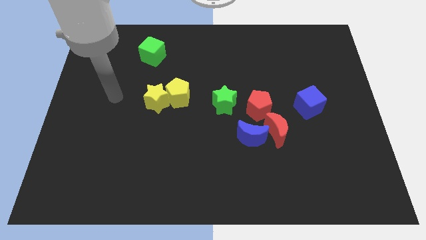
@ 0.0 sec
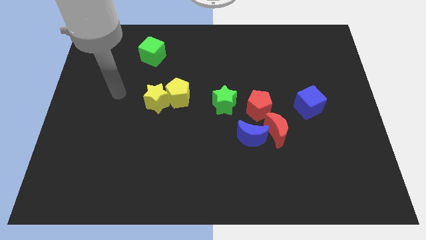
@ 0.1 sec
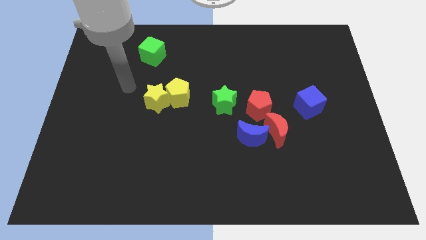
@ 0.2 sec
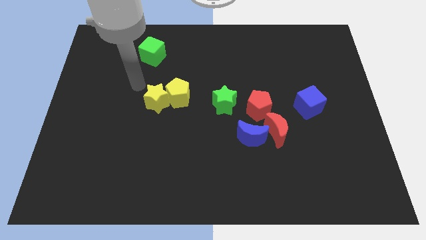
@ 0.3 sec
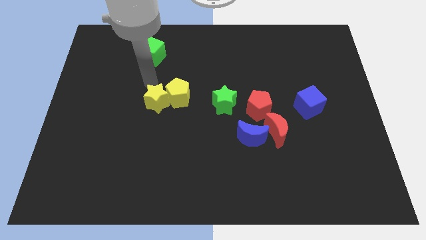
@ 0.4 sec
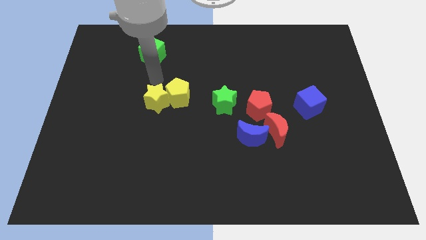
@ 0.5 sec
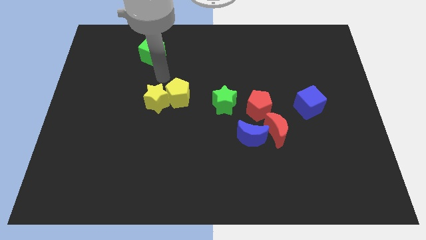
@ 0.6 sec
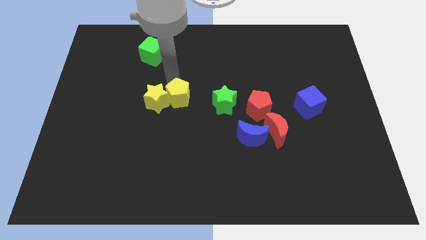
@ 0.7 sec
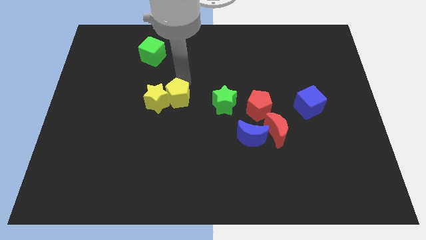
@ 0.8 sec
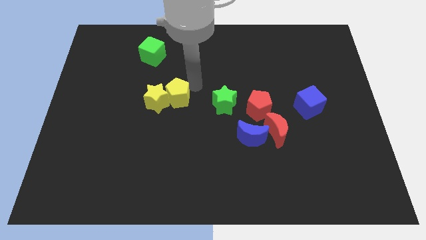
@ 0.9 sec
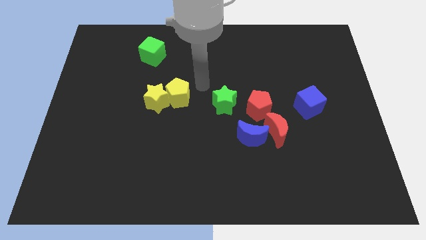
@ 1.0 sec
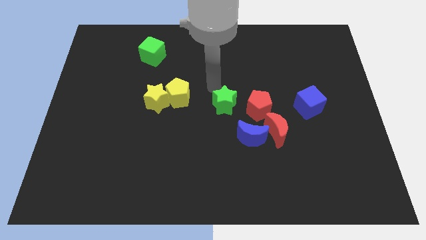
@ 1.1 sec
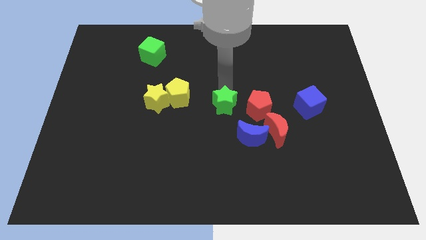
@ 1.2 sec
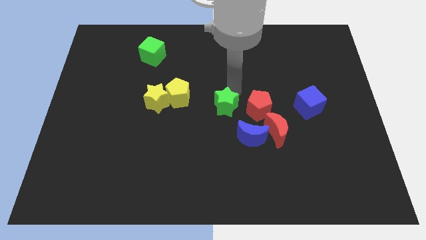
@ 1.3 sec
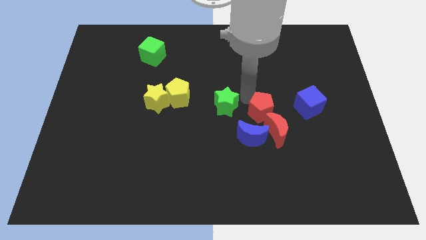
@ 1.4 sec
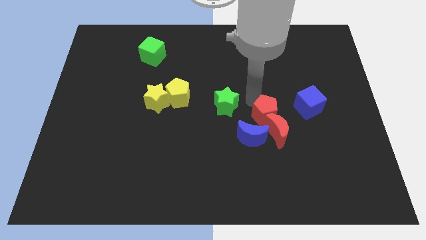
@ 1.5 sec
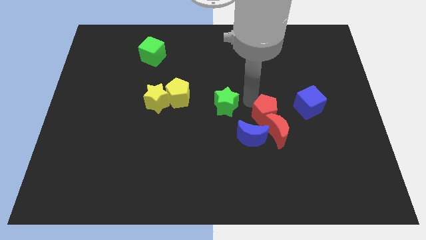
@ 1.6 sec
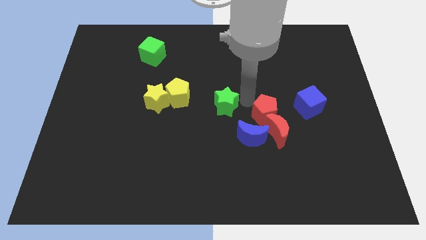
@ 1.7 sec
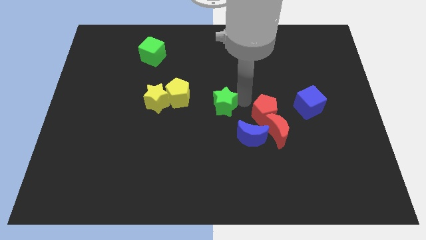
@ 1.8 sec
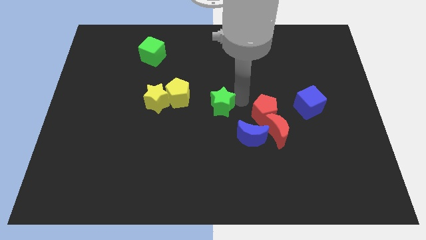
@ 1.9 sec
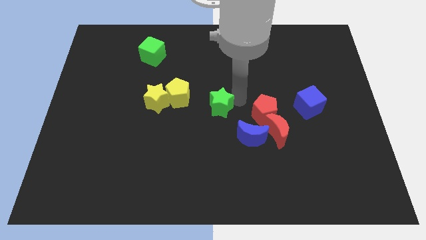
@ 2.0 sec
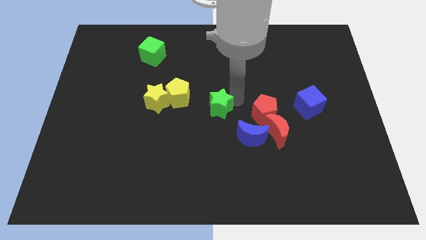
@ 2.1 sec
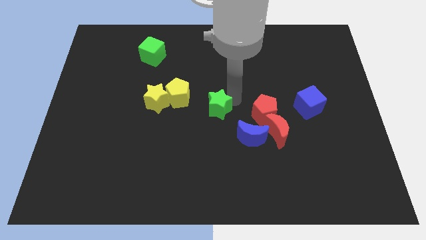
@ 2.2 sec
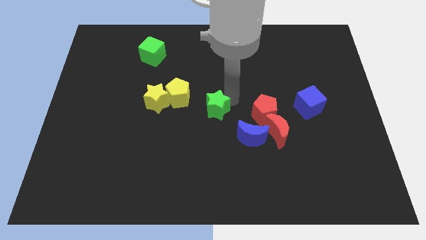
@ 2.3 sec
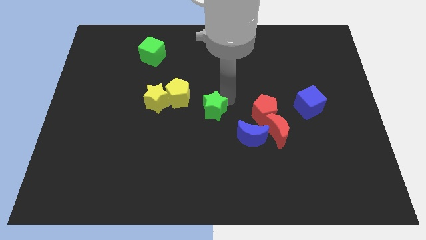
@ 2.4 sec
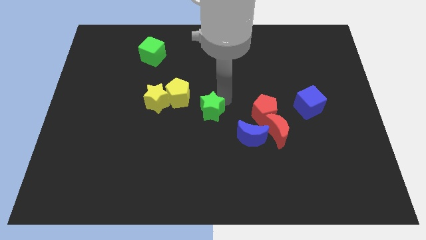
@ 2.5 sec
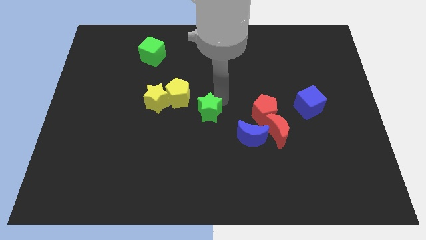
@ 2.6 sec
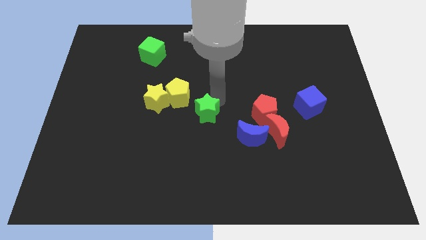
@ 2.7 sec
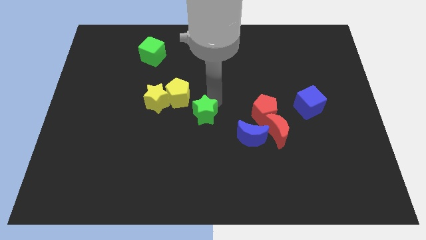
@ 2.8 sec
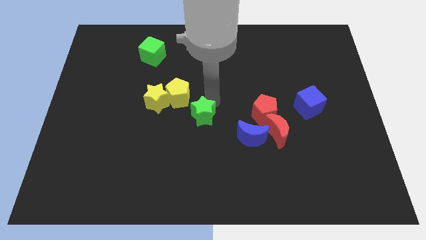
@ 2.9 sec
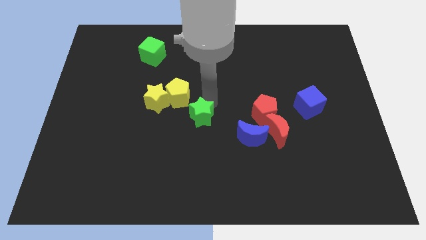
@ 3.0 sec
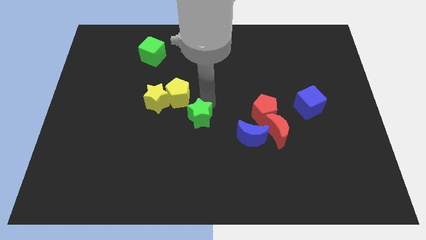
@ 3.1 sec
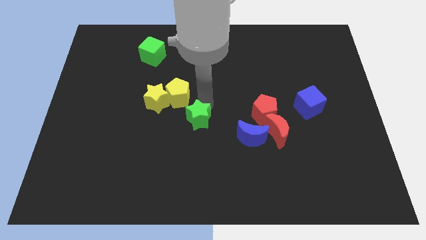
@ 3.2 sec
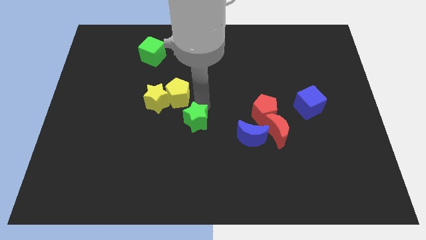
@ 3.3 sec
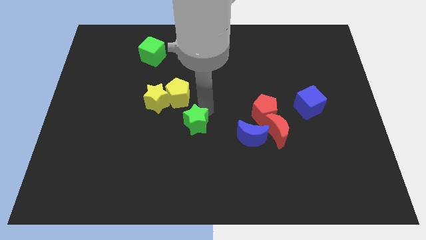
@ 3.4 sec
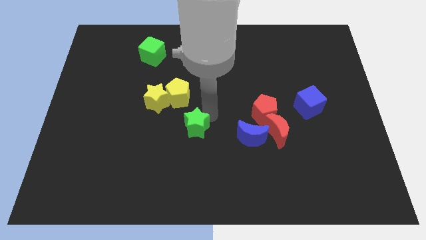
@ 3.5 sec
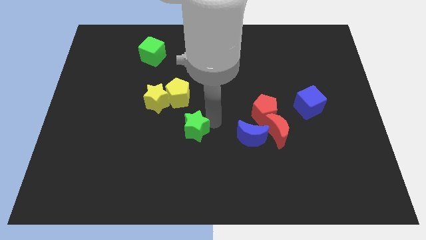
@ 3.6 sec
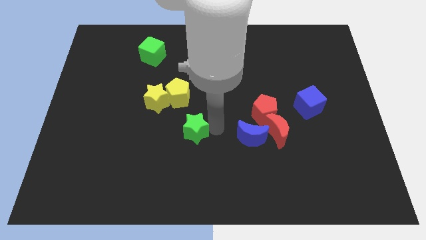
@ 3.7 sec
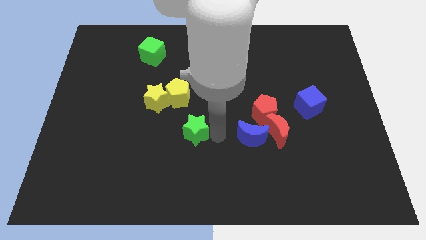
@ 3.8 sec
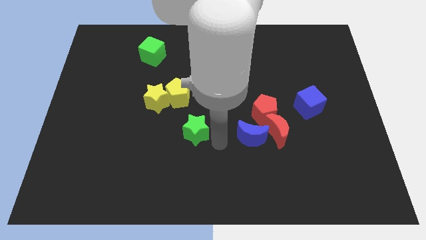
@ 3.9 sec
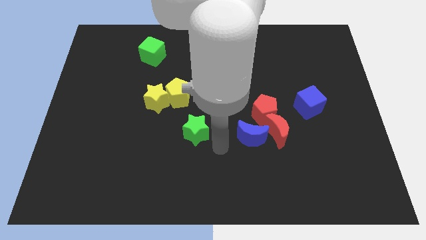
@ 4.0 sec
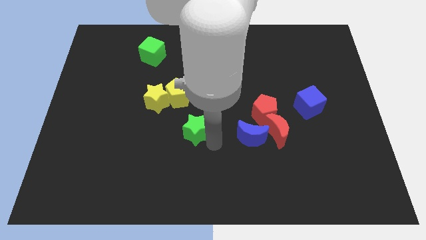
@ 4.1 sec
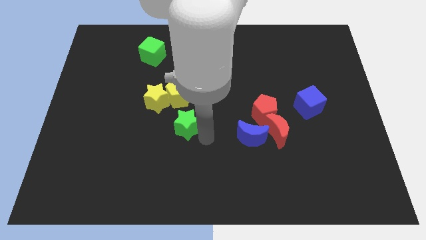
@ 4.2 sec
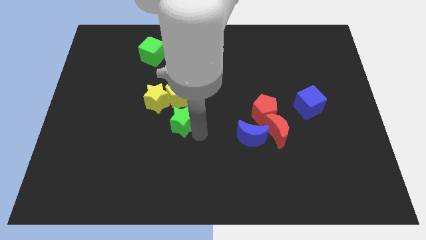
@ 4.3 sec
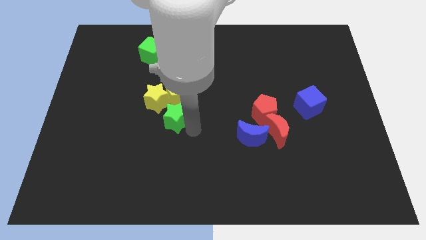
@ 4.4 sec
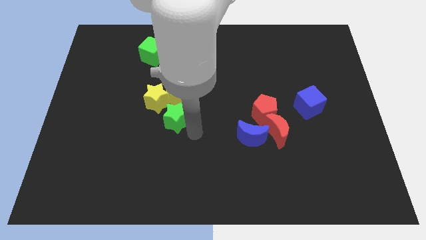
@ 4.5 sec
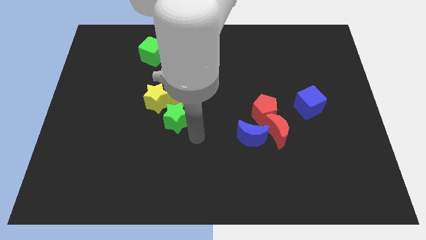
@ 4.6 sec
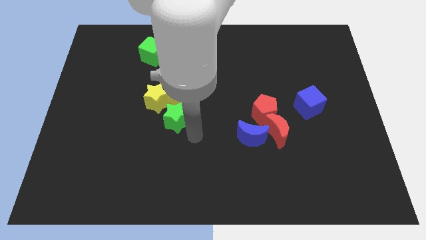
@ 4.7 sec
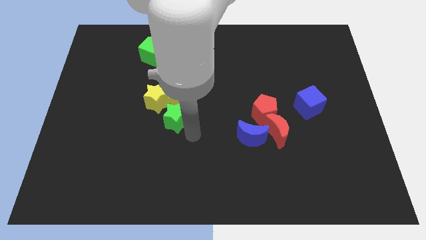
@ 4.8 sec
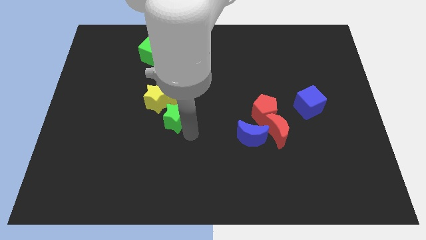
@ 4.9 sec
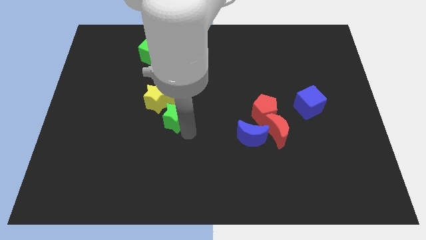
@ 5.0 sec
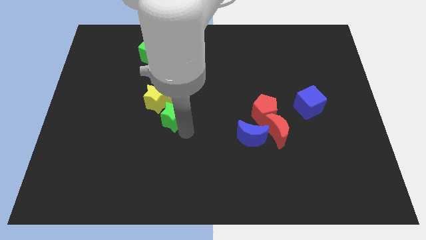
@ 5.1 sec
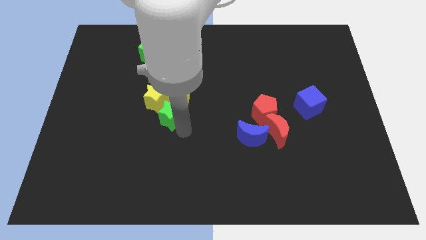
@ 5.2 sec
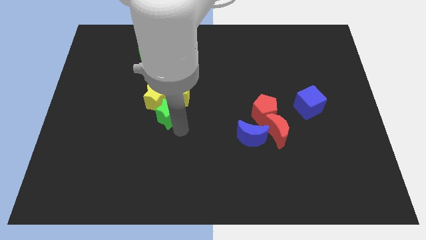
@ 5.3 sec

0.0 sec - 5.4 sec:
slide the green star to the yellow star

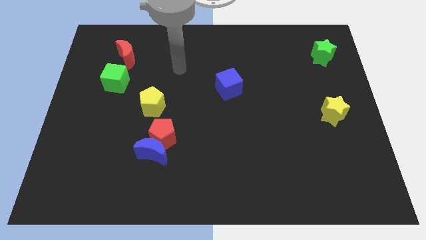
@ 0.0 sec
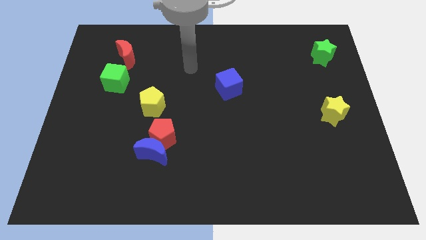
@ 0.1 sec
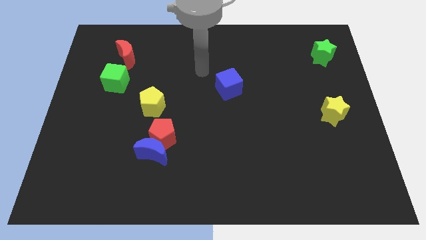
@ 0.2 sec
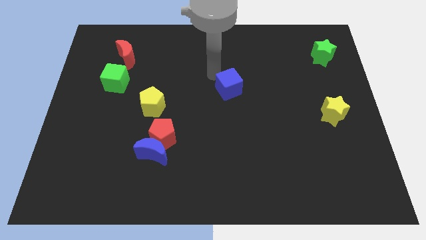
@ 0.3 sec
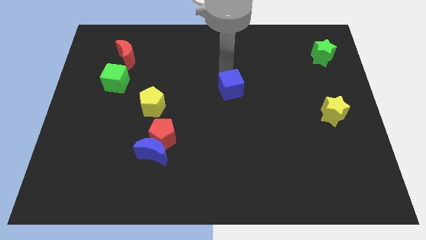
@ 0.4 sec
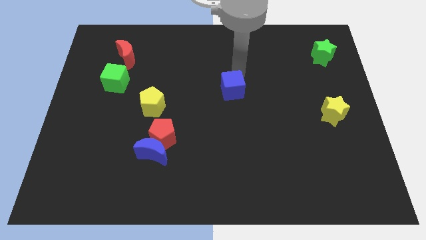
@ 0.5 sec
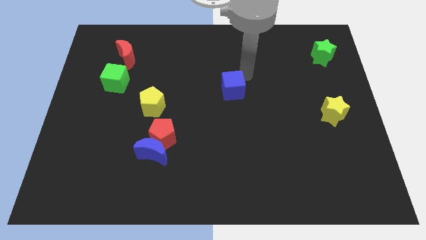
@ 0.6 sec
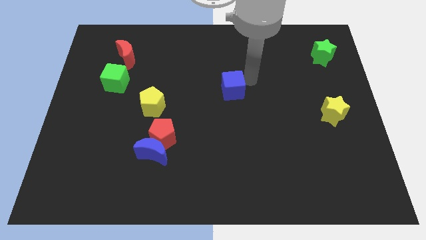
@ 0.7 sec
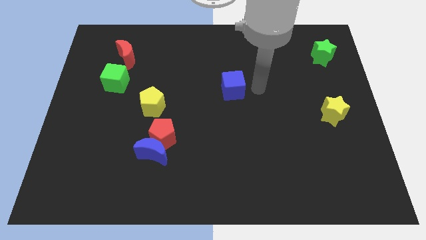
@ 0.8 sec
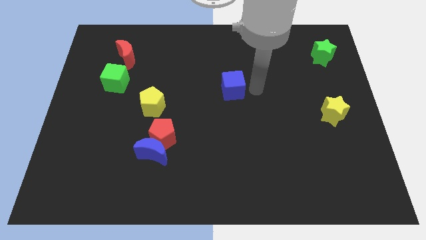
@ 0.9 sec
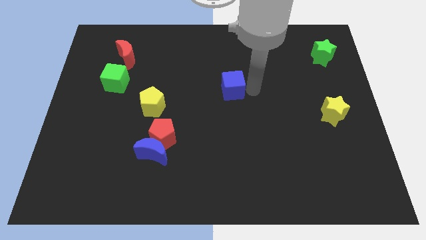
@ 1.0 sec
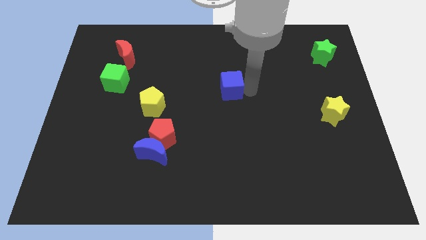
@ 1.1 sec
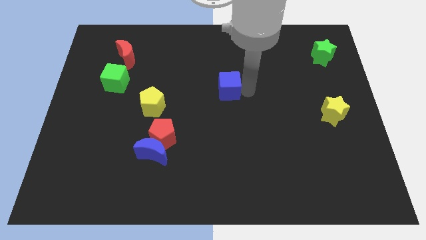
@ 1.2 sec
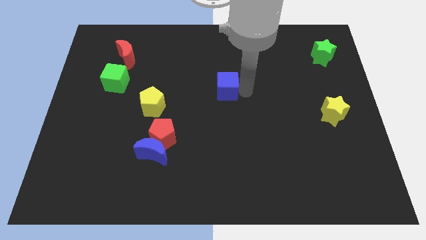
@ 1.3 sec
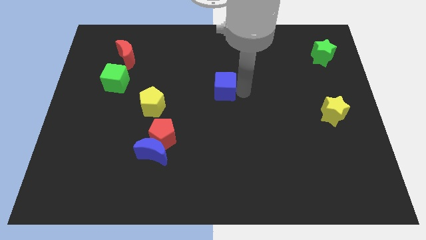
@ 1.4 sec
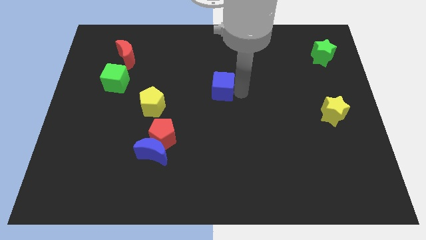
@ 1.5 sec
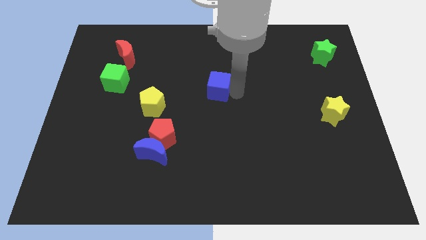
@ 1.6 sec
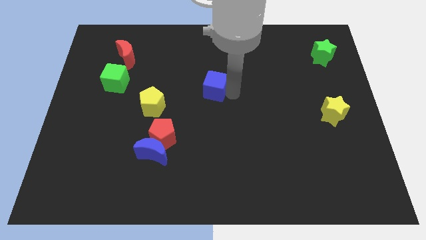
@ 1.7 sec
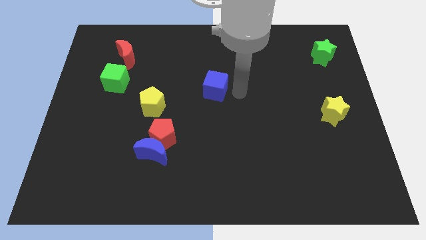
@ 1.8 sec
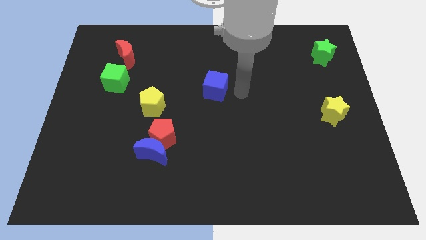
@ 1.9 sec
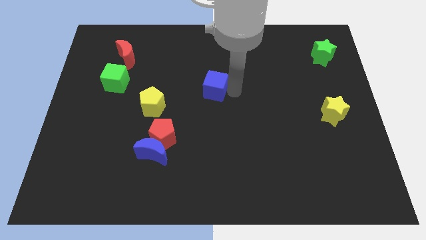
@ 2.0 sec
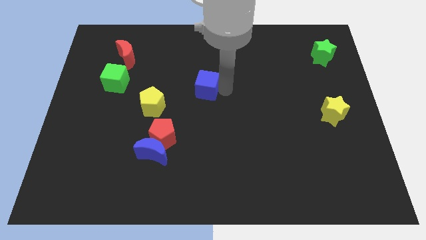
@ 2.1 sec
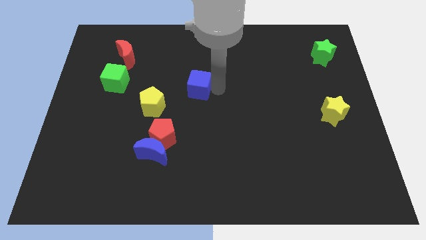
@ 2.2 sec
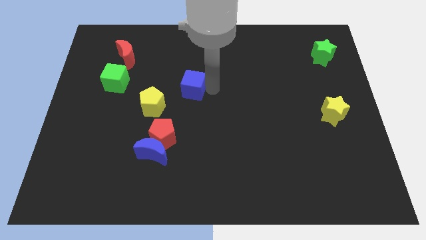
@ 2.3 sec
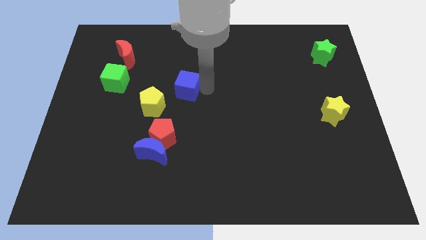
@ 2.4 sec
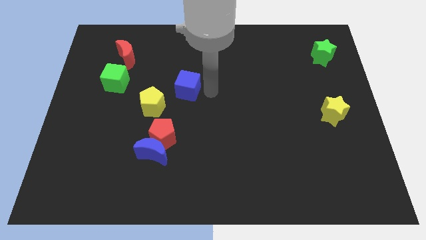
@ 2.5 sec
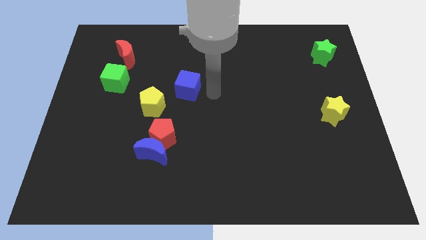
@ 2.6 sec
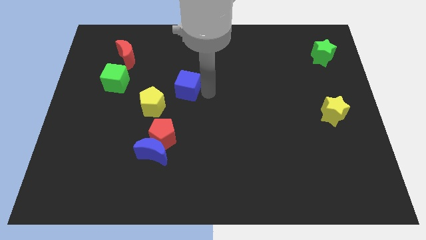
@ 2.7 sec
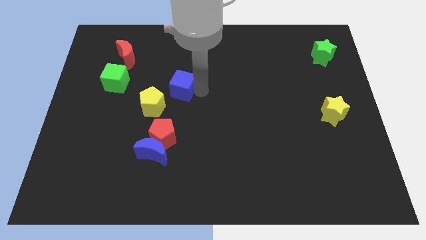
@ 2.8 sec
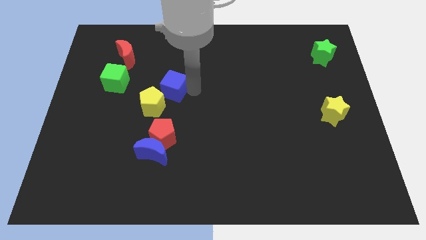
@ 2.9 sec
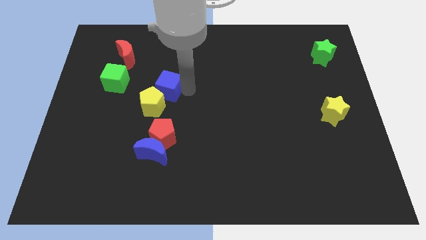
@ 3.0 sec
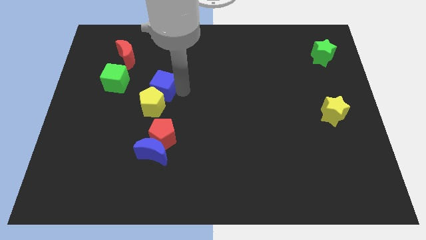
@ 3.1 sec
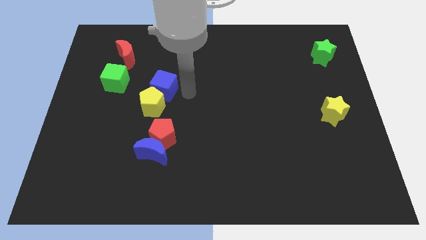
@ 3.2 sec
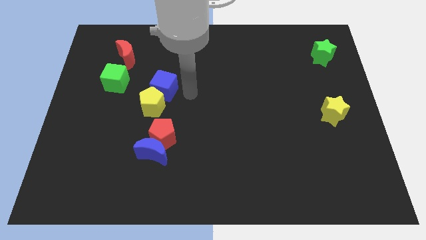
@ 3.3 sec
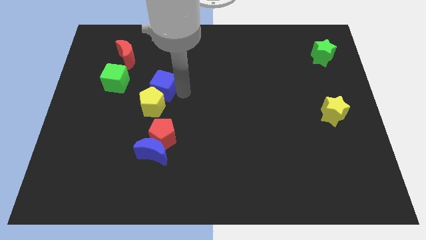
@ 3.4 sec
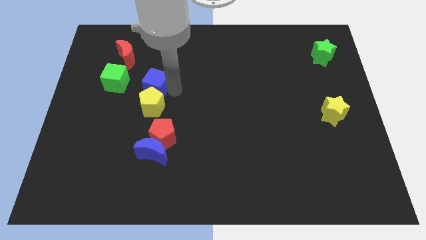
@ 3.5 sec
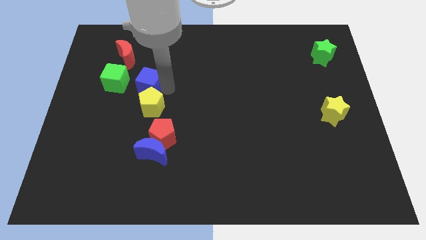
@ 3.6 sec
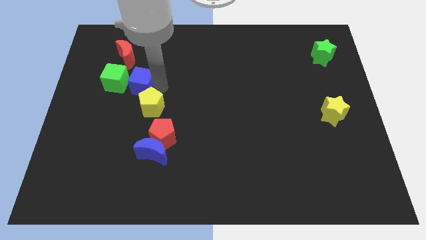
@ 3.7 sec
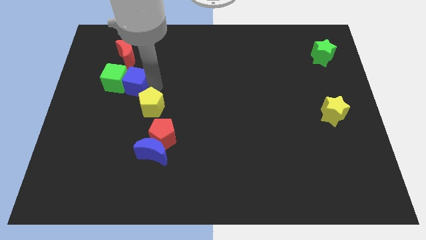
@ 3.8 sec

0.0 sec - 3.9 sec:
move the blue cube next to the green cube
